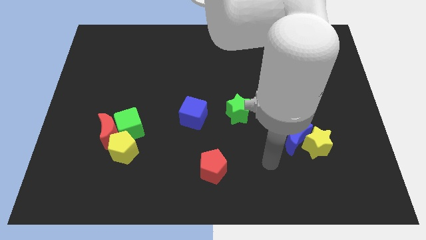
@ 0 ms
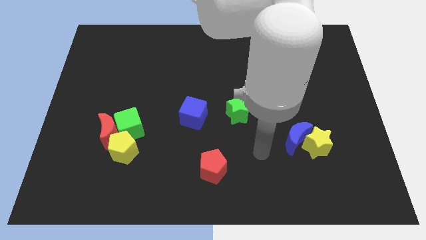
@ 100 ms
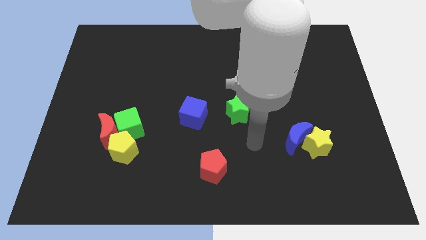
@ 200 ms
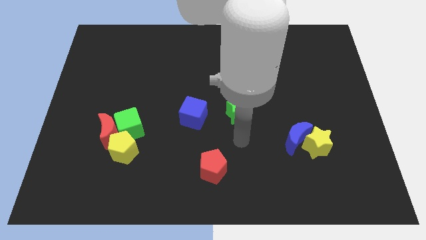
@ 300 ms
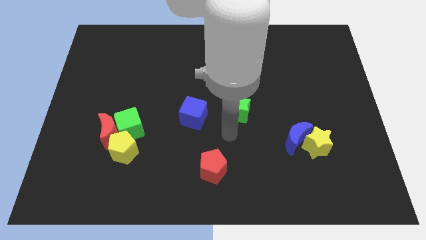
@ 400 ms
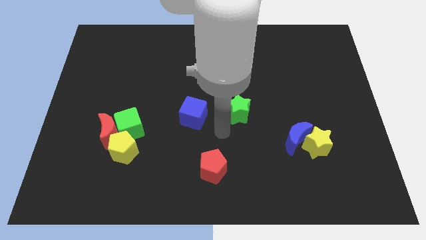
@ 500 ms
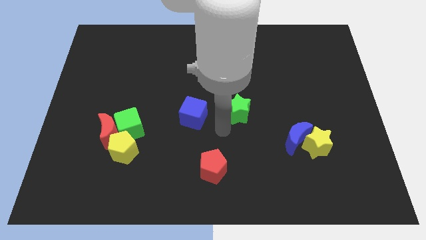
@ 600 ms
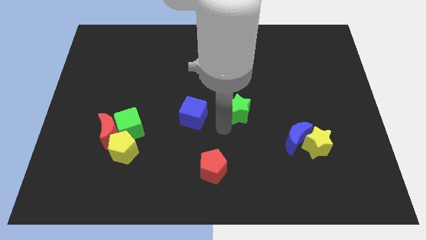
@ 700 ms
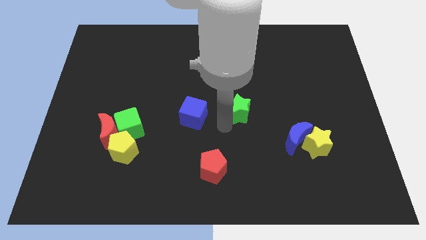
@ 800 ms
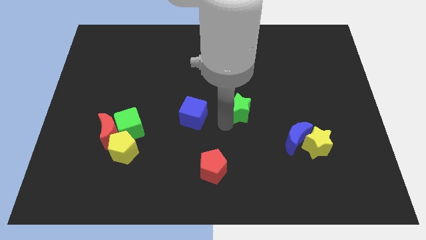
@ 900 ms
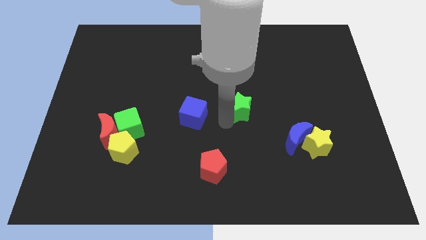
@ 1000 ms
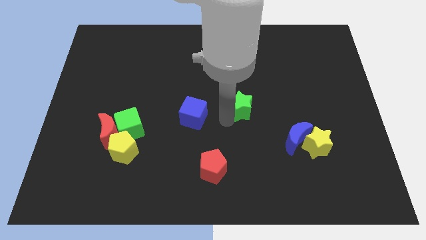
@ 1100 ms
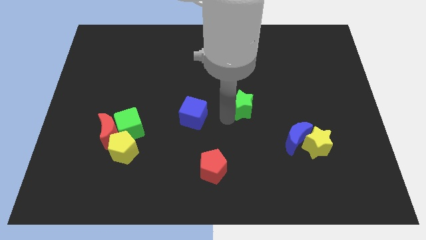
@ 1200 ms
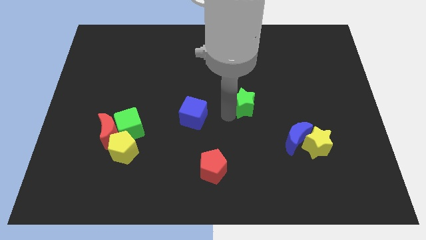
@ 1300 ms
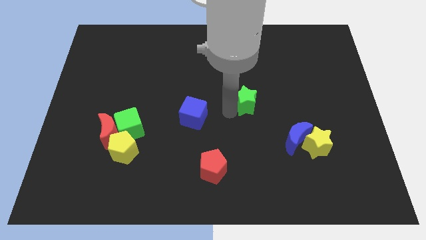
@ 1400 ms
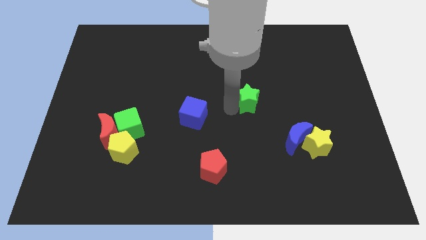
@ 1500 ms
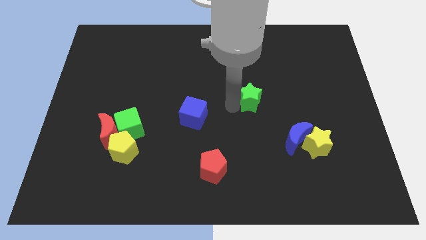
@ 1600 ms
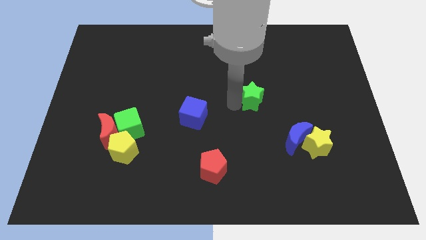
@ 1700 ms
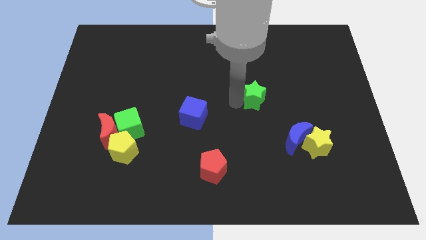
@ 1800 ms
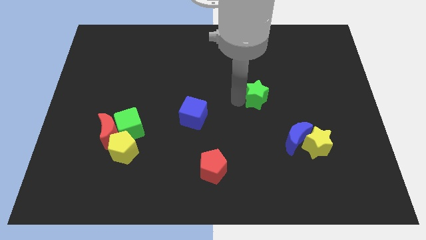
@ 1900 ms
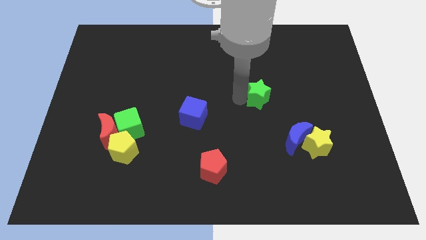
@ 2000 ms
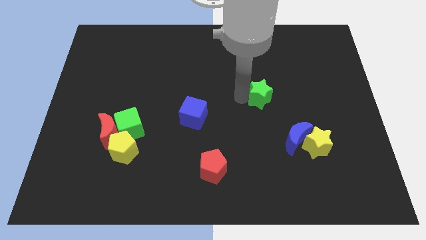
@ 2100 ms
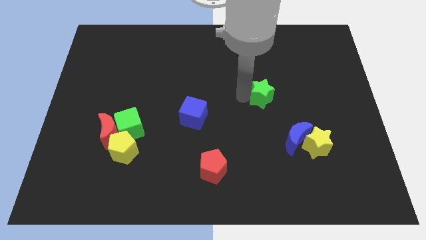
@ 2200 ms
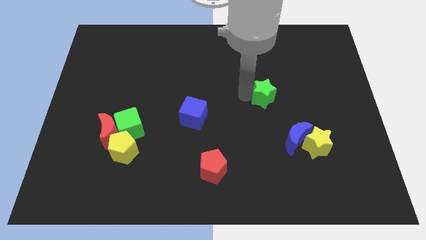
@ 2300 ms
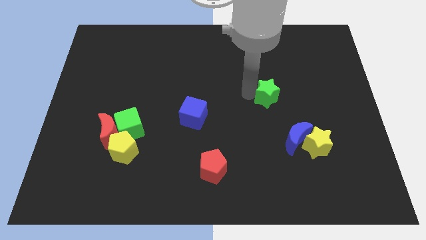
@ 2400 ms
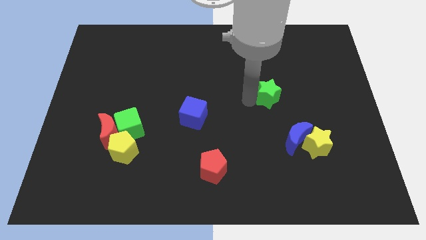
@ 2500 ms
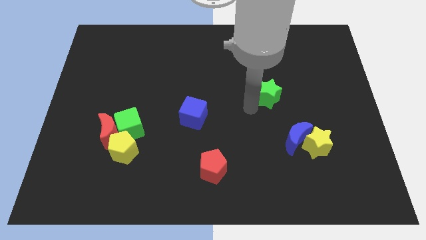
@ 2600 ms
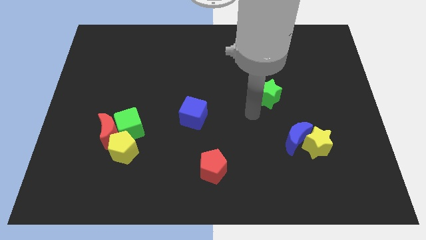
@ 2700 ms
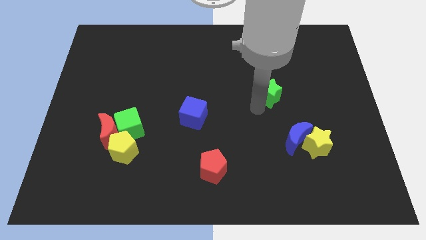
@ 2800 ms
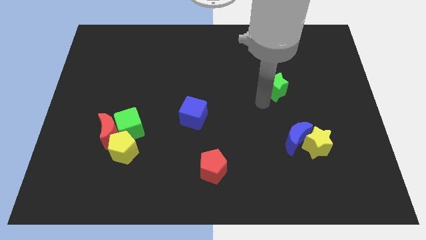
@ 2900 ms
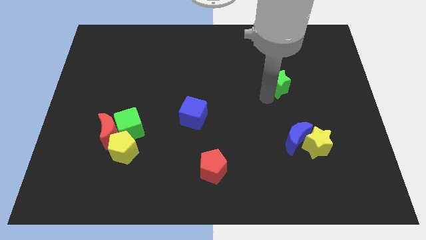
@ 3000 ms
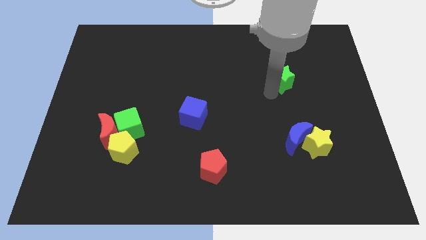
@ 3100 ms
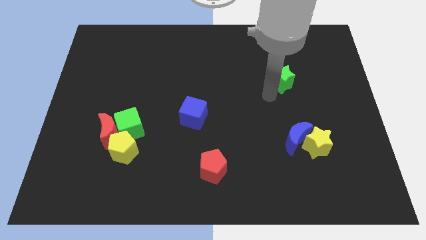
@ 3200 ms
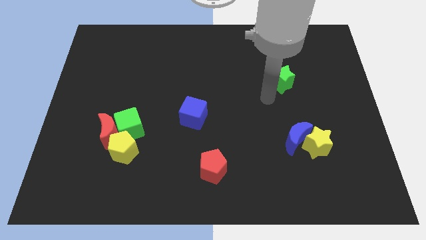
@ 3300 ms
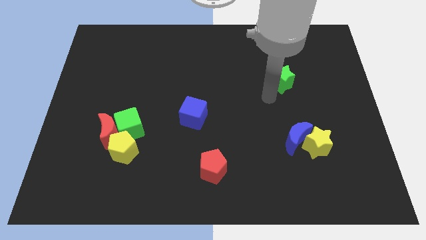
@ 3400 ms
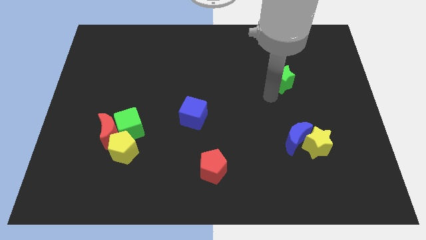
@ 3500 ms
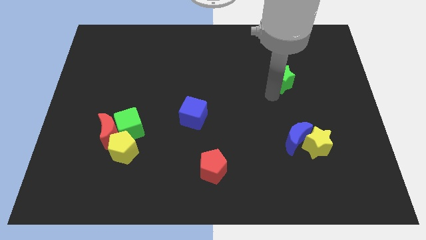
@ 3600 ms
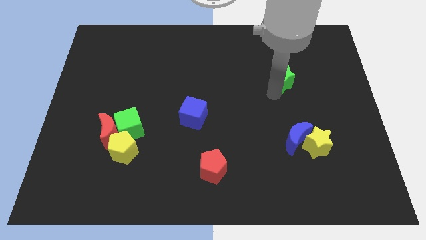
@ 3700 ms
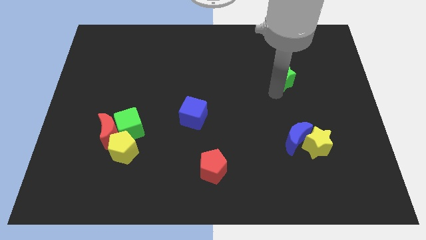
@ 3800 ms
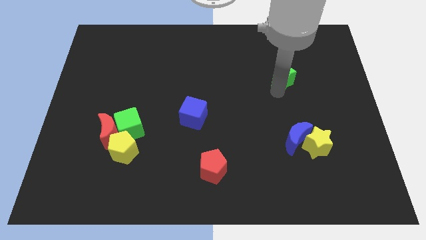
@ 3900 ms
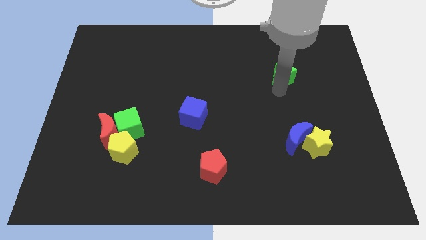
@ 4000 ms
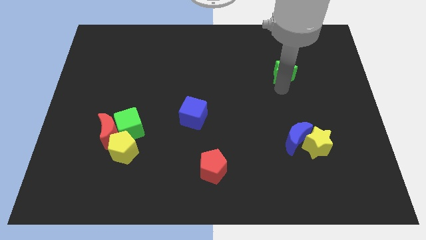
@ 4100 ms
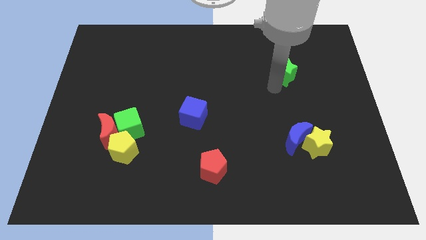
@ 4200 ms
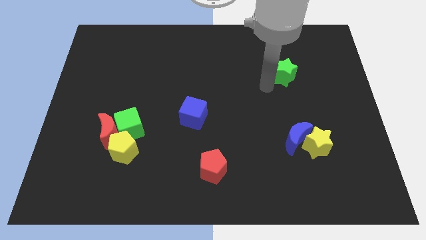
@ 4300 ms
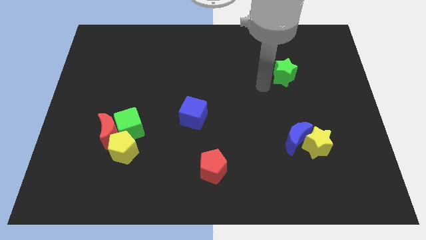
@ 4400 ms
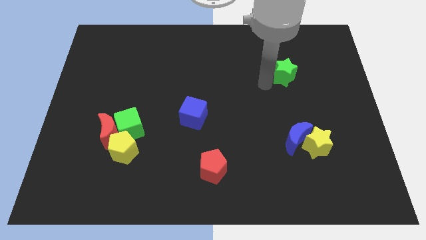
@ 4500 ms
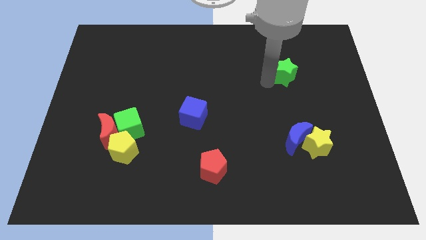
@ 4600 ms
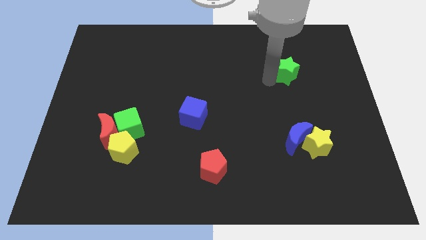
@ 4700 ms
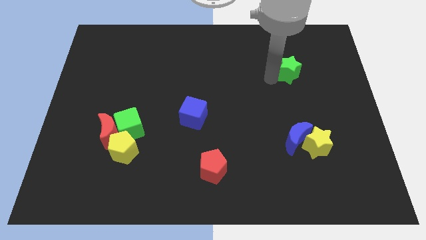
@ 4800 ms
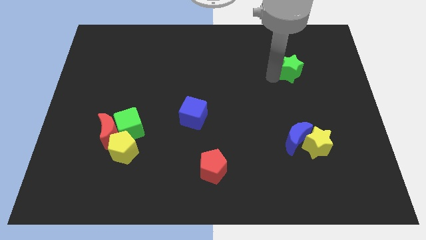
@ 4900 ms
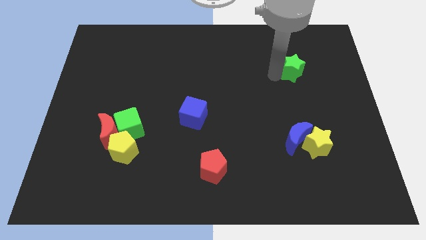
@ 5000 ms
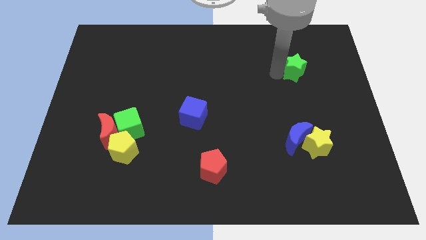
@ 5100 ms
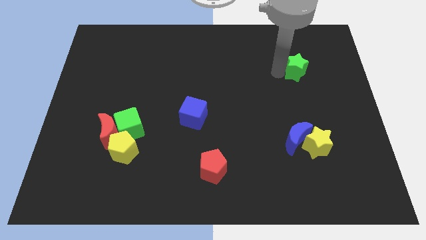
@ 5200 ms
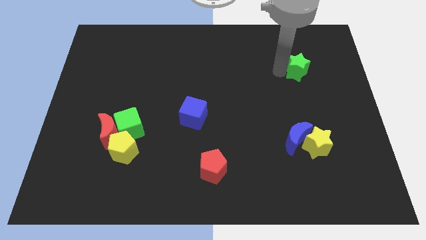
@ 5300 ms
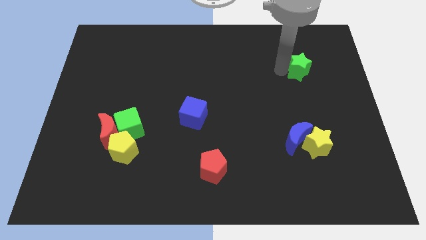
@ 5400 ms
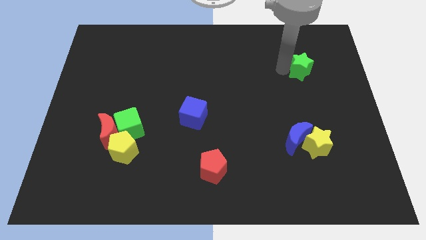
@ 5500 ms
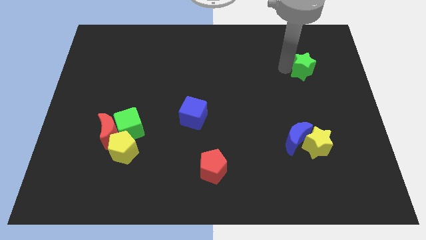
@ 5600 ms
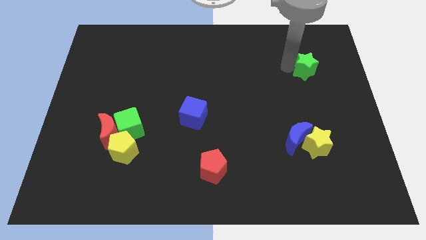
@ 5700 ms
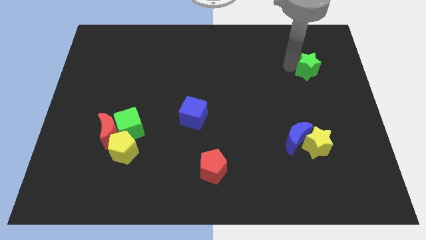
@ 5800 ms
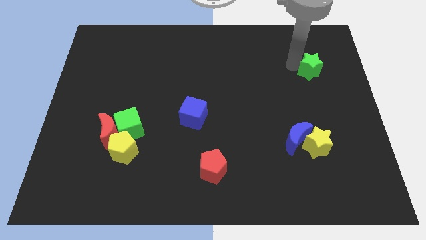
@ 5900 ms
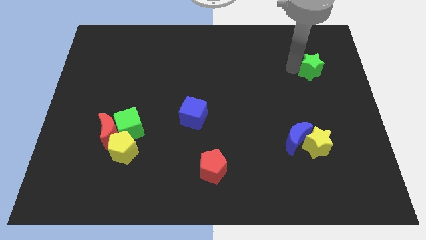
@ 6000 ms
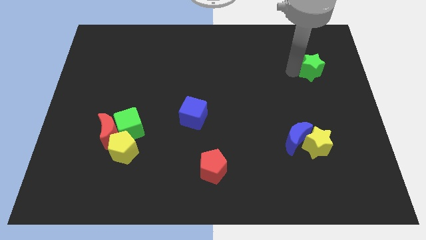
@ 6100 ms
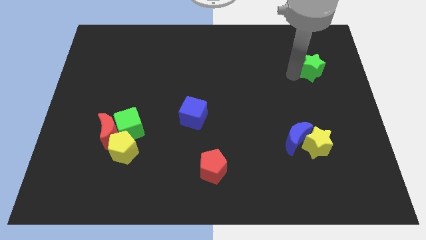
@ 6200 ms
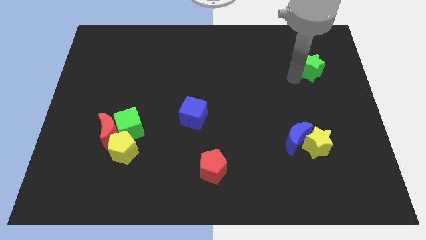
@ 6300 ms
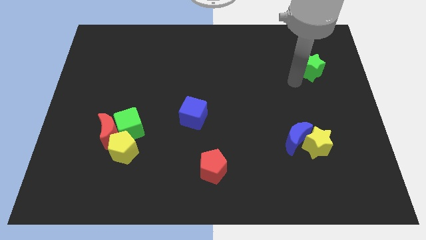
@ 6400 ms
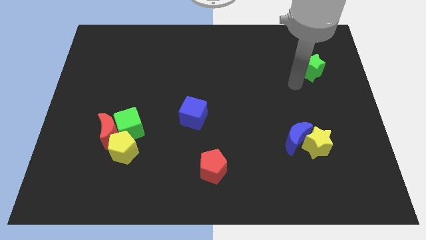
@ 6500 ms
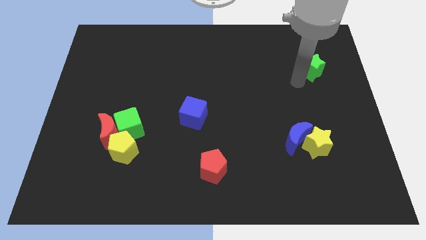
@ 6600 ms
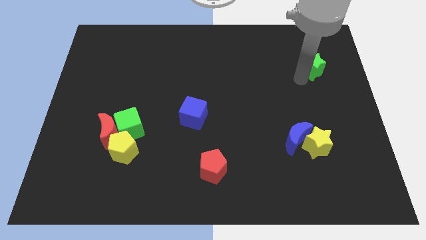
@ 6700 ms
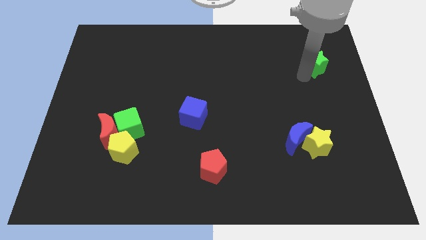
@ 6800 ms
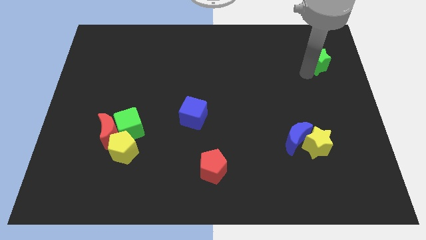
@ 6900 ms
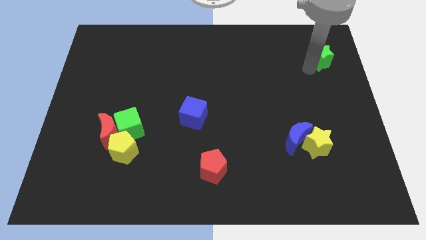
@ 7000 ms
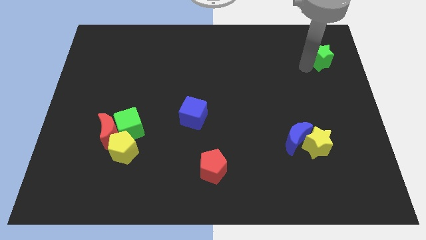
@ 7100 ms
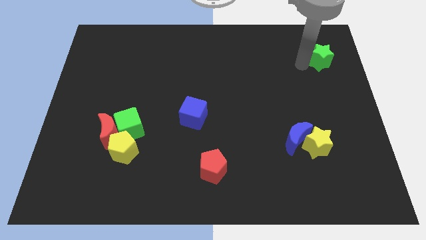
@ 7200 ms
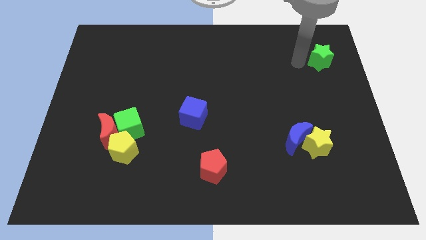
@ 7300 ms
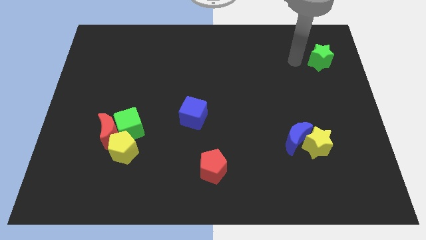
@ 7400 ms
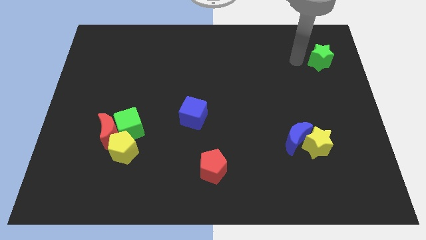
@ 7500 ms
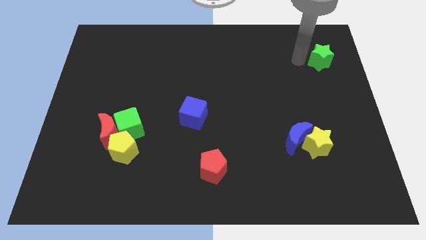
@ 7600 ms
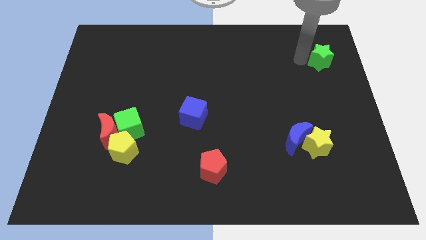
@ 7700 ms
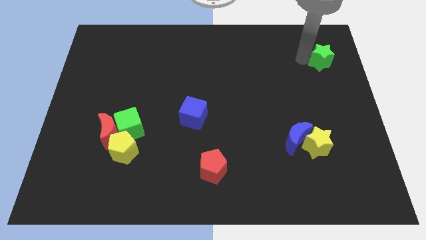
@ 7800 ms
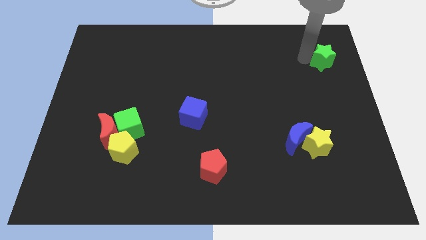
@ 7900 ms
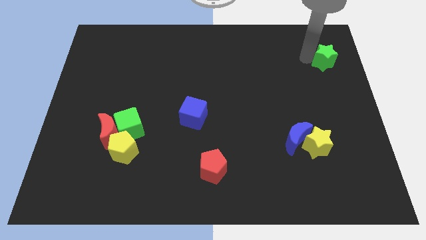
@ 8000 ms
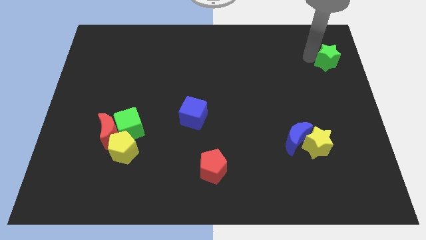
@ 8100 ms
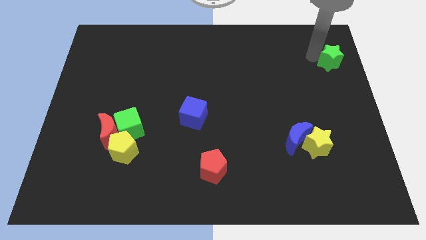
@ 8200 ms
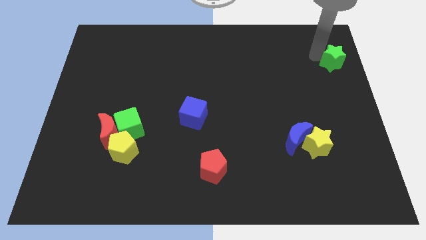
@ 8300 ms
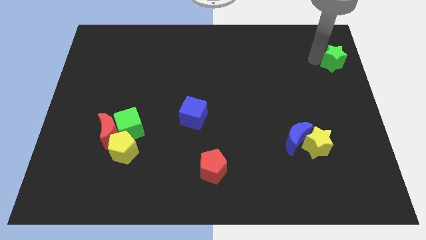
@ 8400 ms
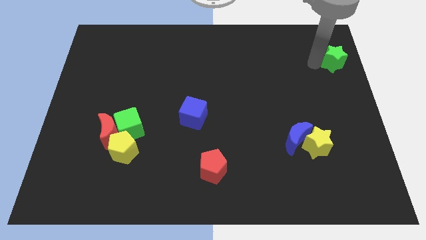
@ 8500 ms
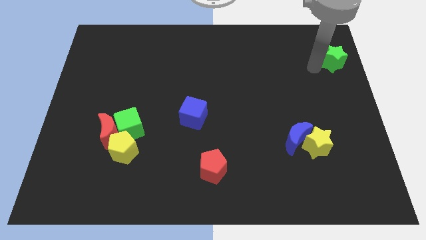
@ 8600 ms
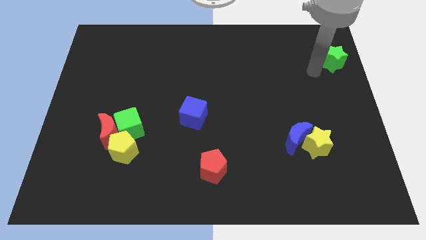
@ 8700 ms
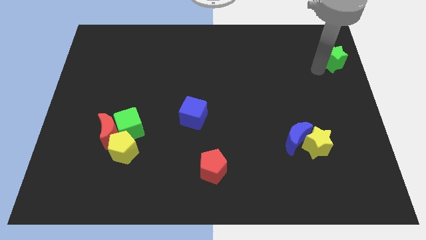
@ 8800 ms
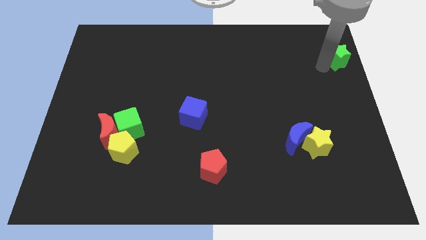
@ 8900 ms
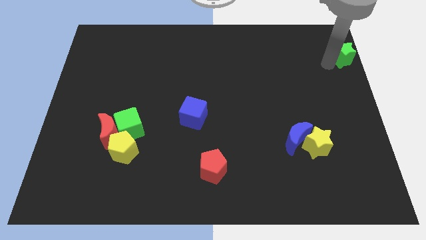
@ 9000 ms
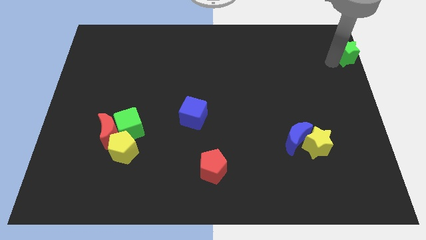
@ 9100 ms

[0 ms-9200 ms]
move the green star to the top right of the board
